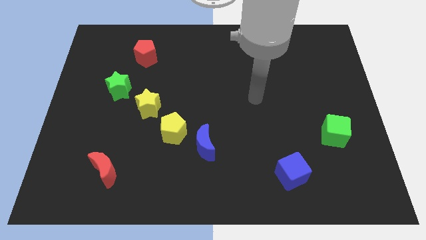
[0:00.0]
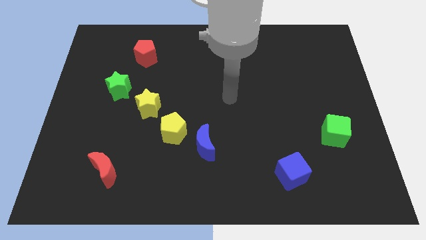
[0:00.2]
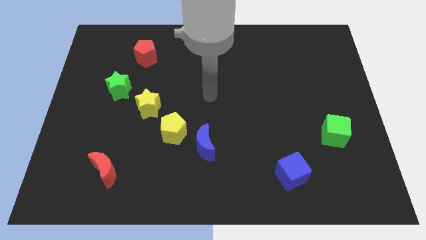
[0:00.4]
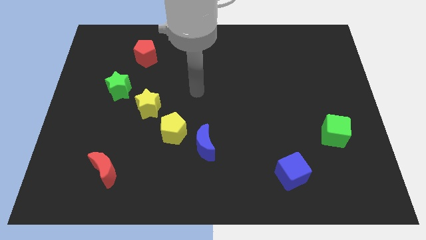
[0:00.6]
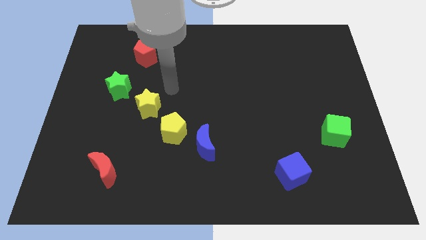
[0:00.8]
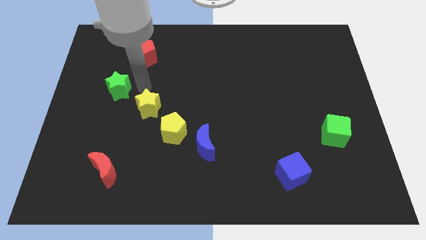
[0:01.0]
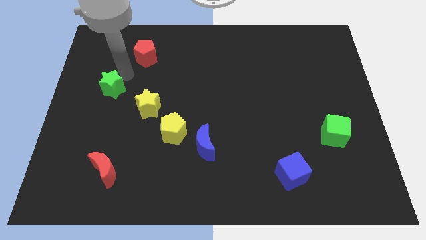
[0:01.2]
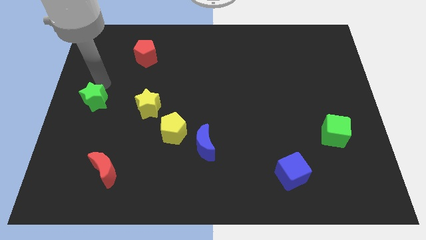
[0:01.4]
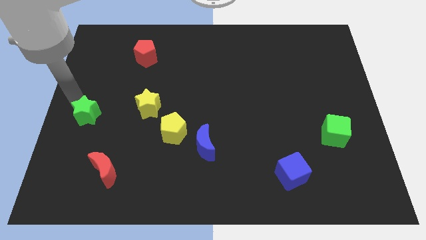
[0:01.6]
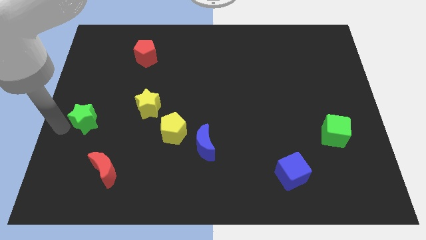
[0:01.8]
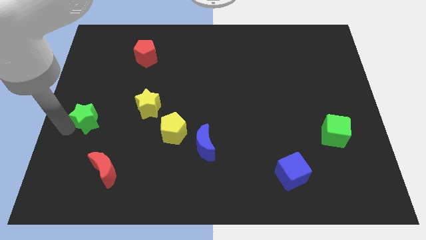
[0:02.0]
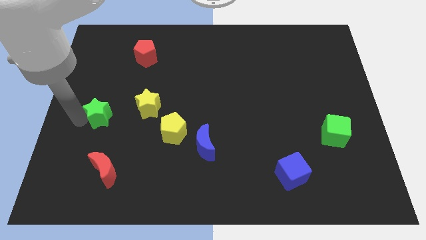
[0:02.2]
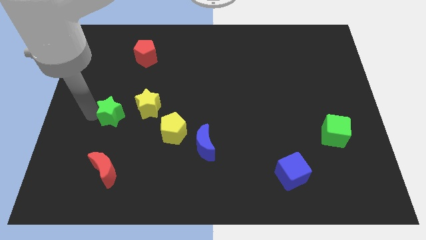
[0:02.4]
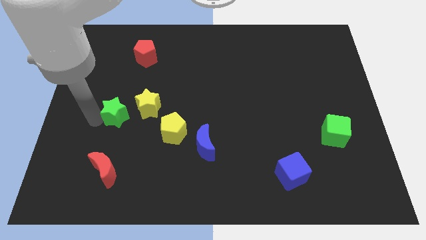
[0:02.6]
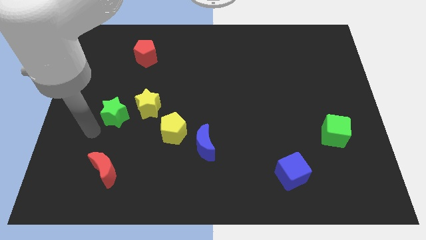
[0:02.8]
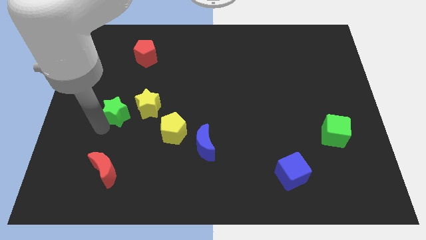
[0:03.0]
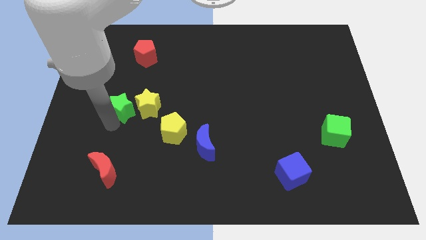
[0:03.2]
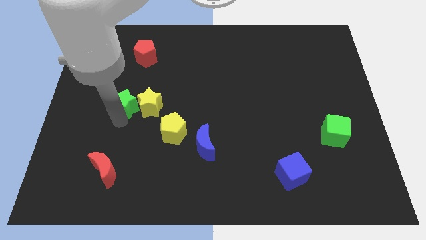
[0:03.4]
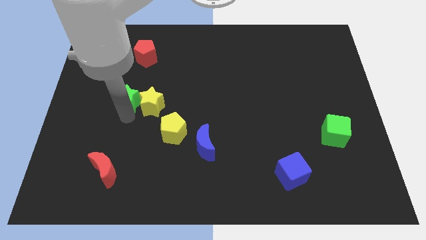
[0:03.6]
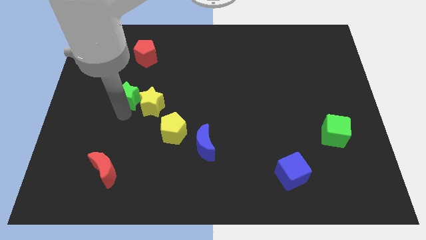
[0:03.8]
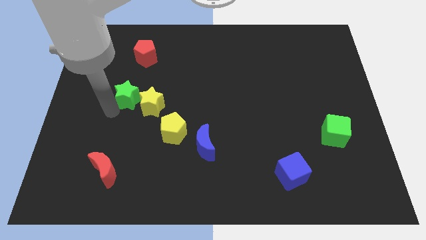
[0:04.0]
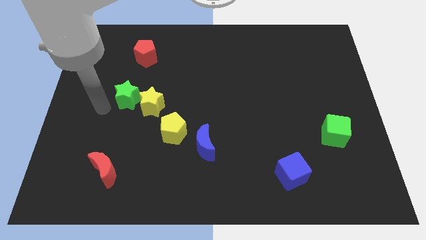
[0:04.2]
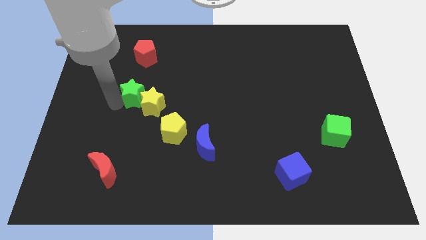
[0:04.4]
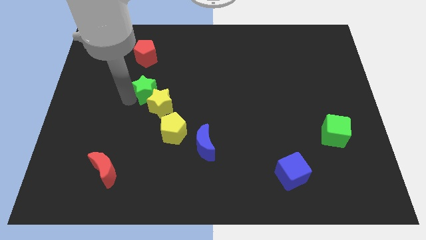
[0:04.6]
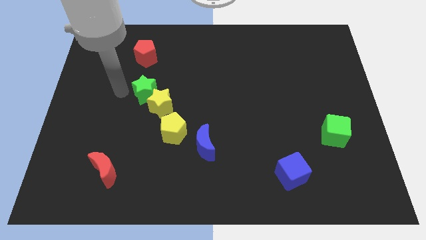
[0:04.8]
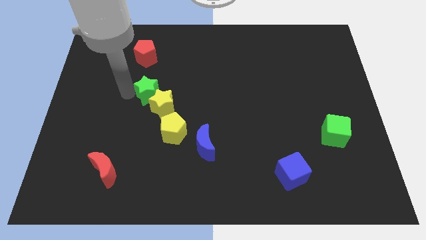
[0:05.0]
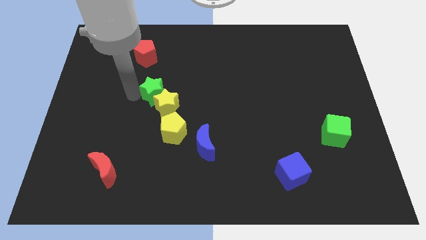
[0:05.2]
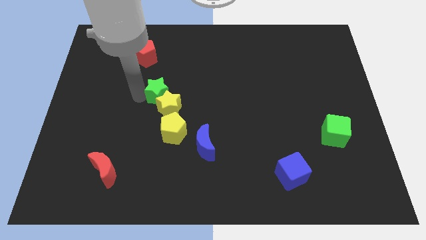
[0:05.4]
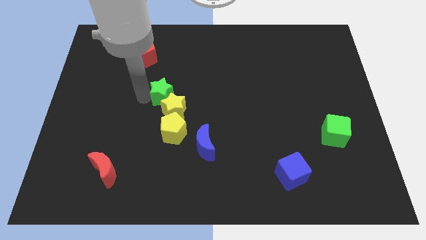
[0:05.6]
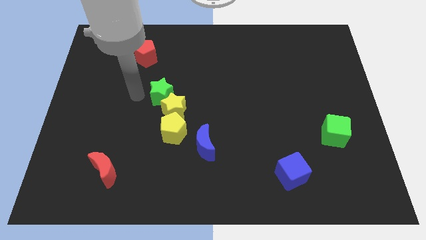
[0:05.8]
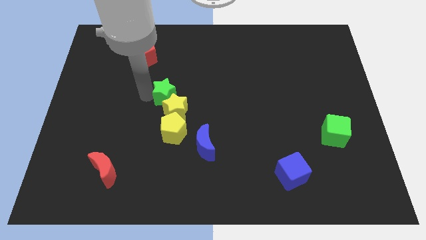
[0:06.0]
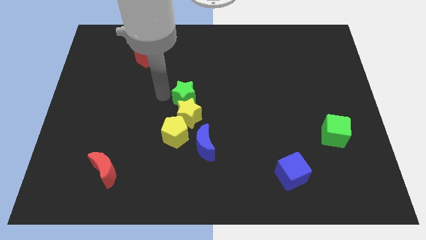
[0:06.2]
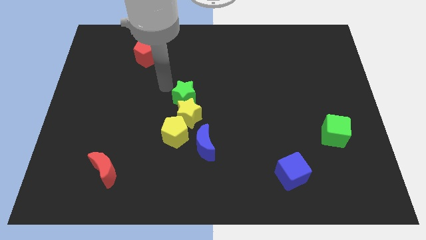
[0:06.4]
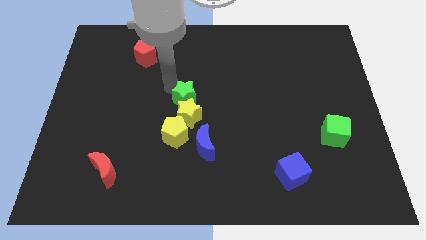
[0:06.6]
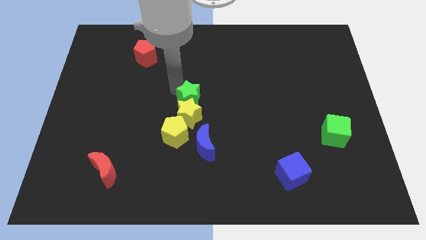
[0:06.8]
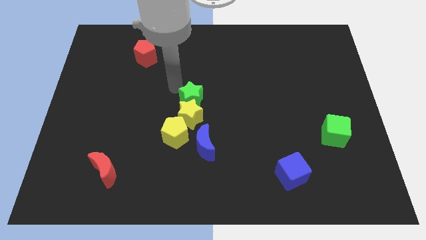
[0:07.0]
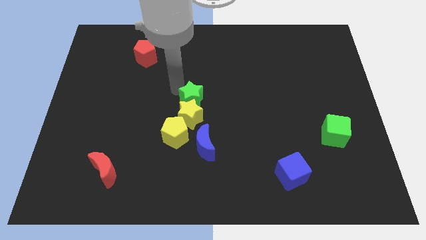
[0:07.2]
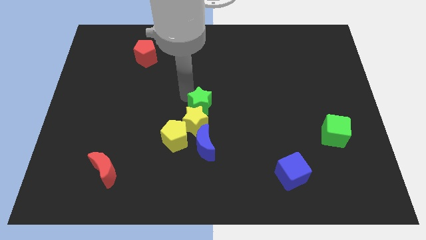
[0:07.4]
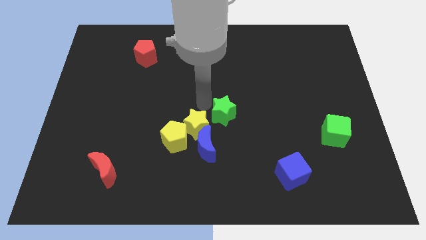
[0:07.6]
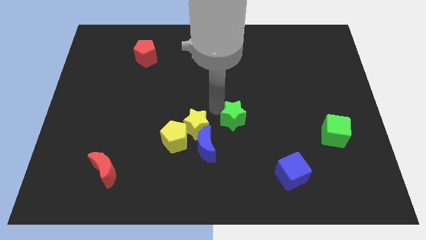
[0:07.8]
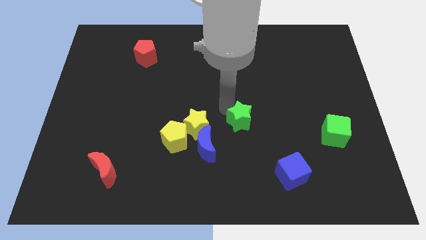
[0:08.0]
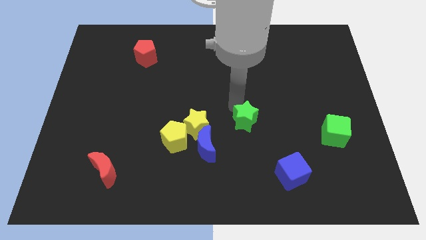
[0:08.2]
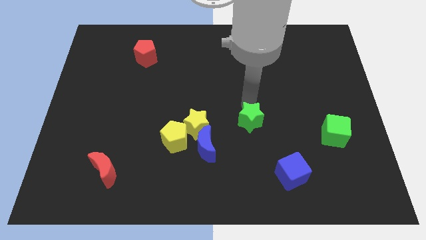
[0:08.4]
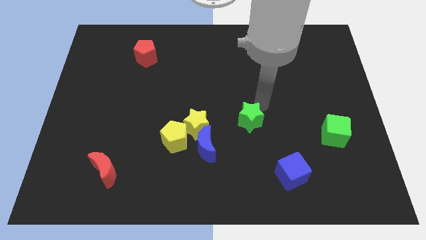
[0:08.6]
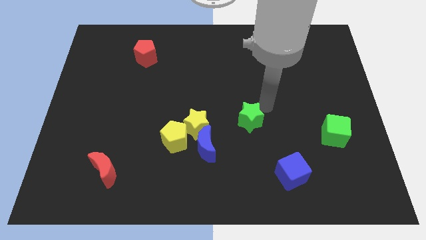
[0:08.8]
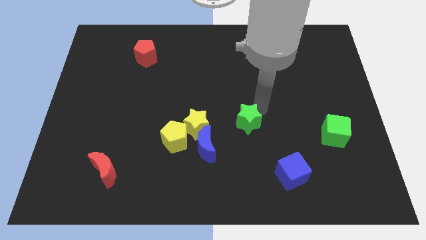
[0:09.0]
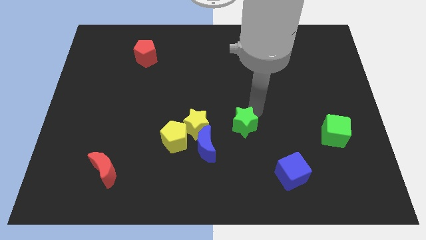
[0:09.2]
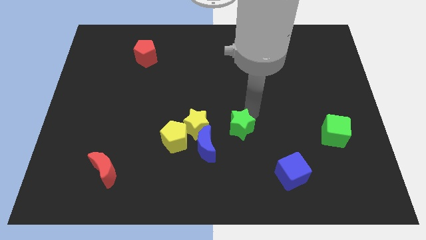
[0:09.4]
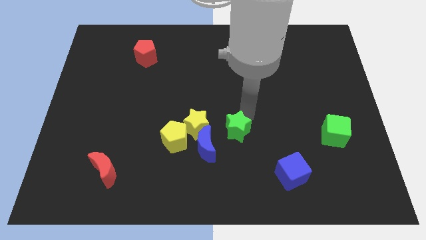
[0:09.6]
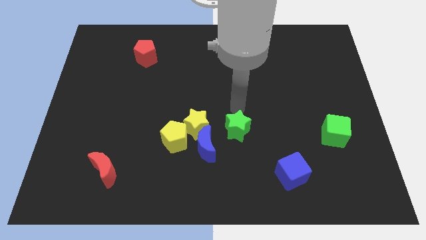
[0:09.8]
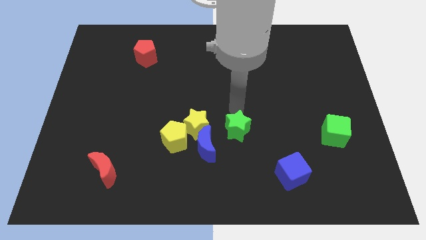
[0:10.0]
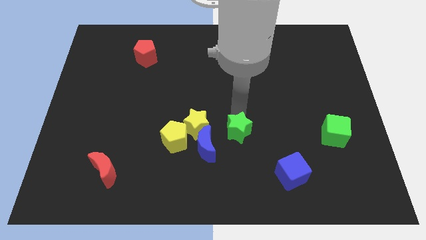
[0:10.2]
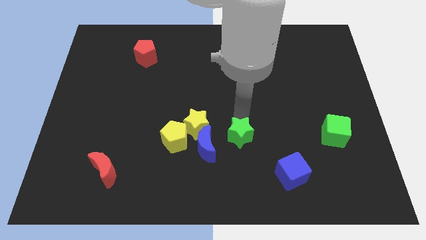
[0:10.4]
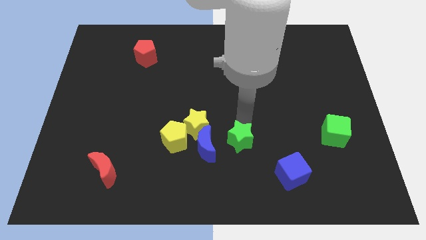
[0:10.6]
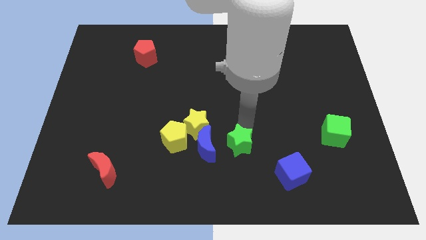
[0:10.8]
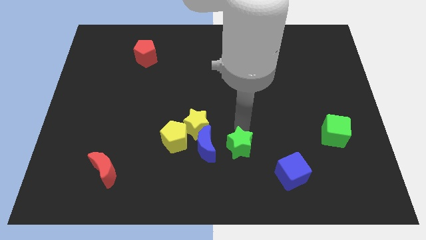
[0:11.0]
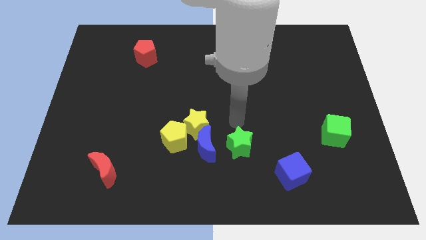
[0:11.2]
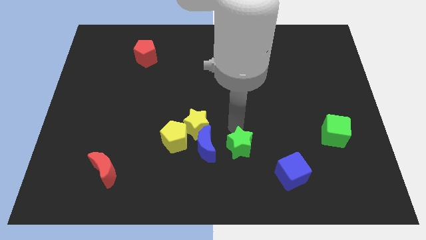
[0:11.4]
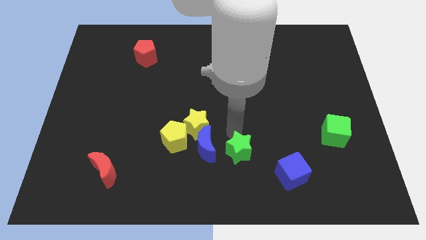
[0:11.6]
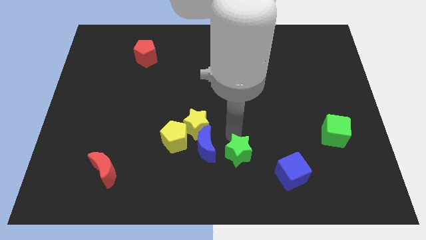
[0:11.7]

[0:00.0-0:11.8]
move the green star to the left of the blue cube
